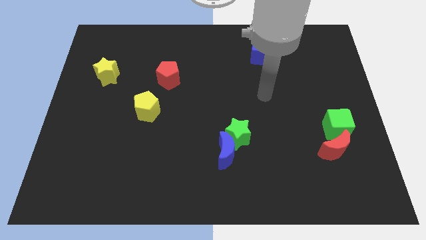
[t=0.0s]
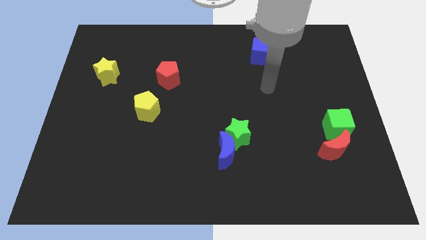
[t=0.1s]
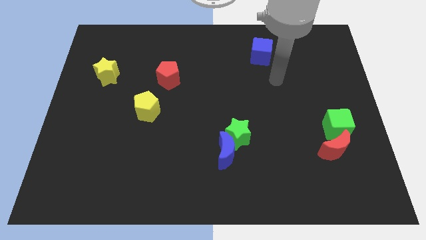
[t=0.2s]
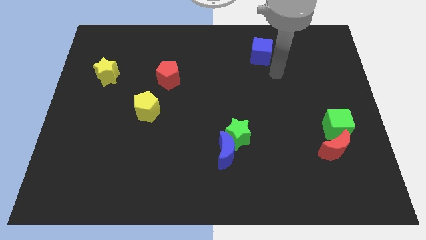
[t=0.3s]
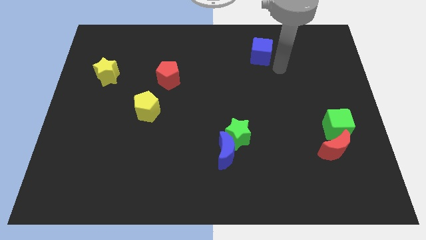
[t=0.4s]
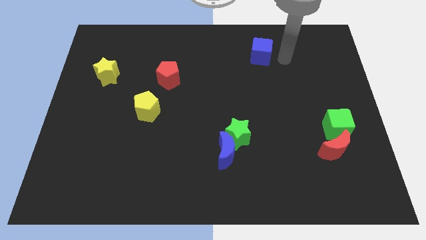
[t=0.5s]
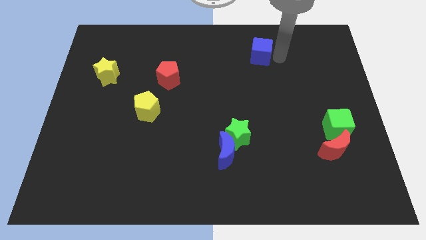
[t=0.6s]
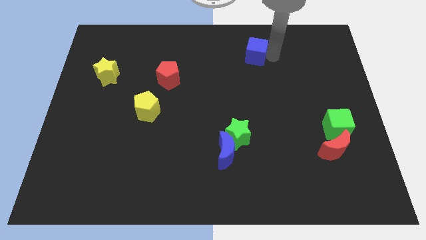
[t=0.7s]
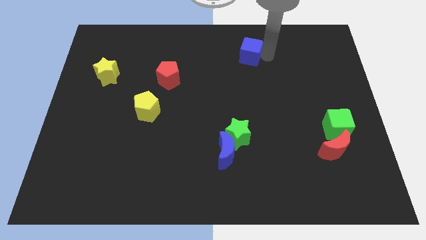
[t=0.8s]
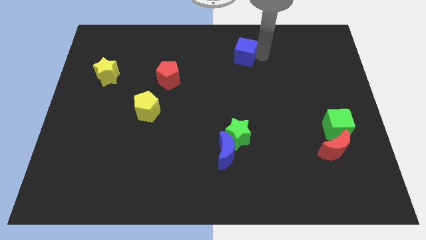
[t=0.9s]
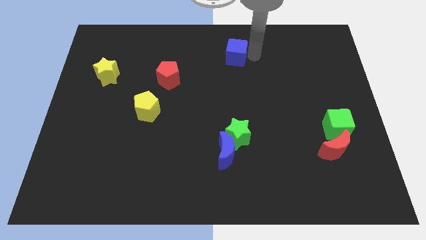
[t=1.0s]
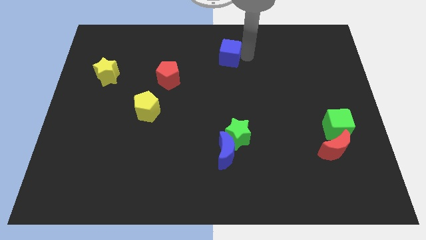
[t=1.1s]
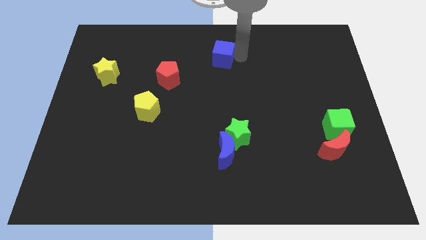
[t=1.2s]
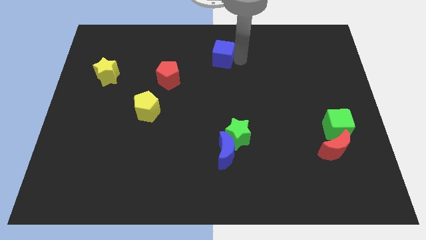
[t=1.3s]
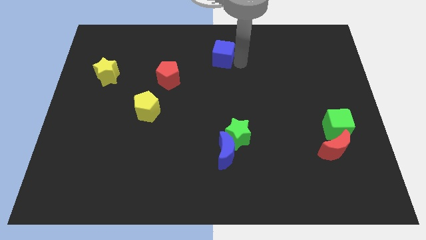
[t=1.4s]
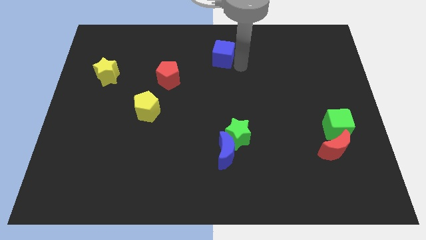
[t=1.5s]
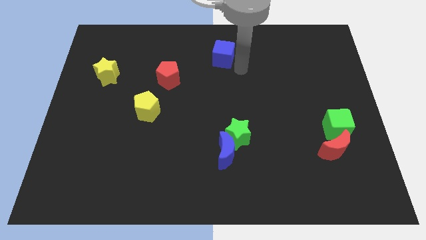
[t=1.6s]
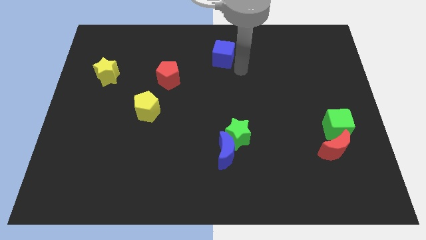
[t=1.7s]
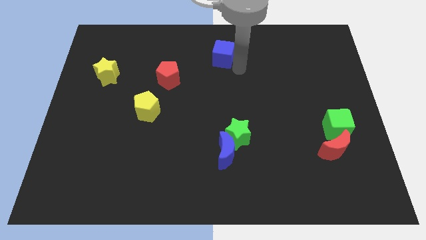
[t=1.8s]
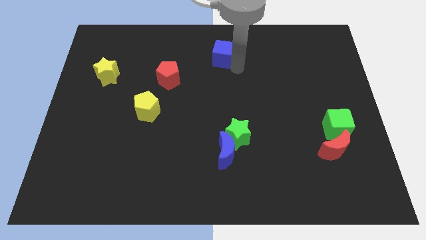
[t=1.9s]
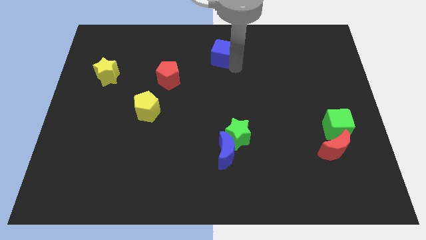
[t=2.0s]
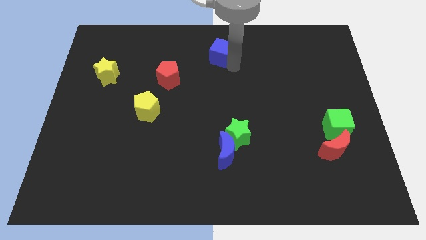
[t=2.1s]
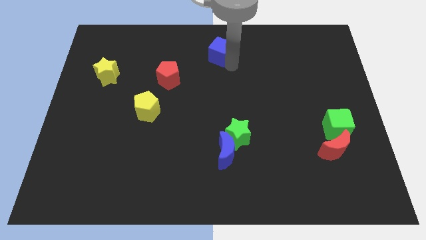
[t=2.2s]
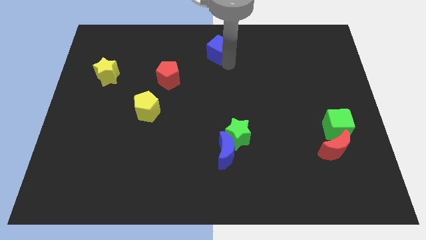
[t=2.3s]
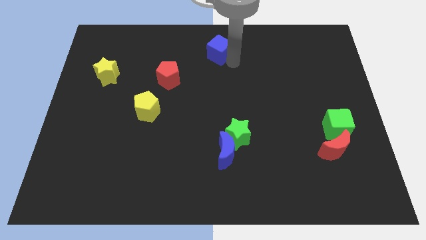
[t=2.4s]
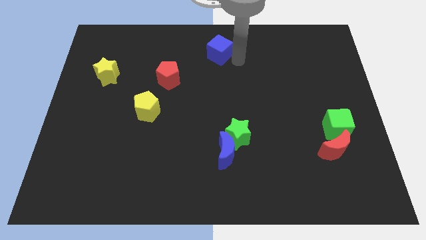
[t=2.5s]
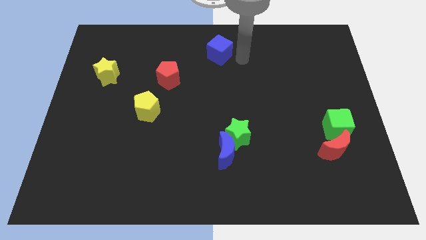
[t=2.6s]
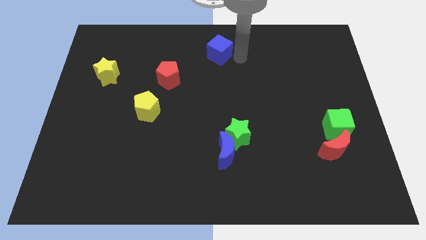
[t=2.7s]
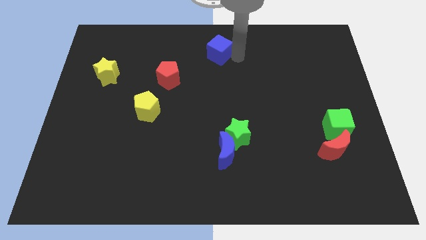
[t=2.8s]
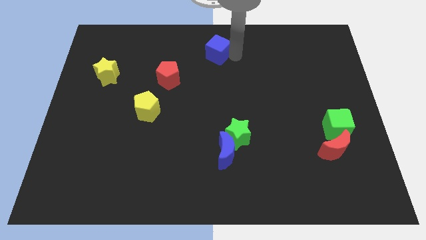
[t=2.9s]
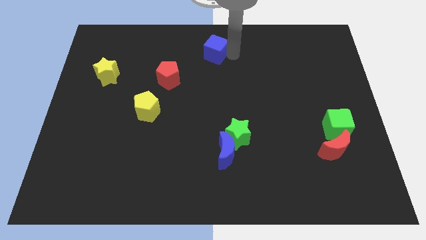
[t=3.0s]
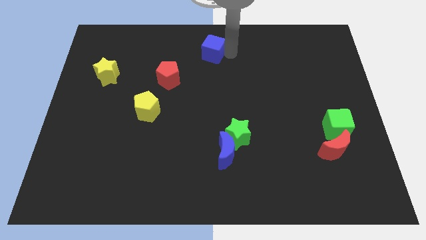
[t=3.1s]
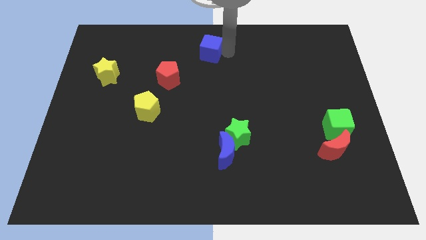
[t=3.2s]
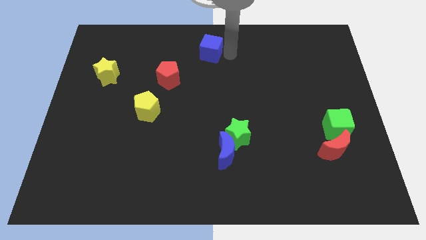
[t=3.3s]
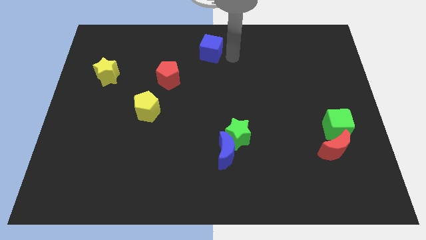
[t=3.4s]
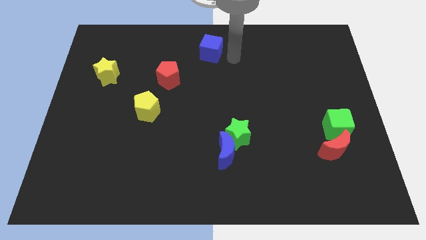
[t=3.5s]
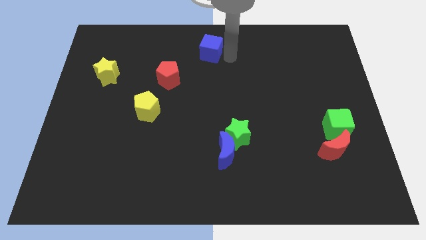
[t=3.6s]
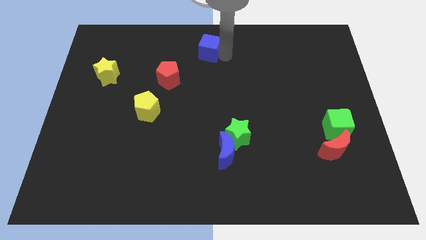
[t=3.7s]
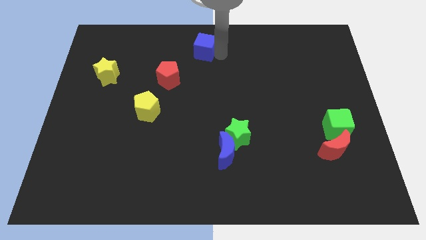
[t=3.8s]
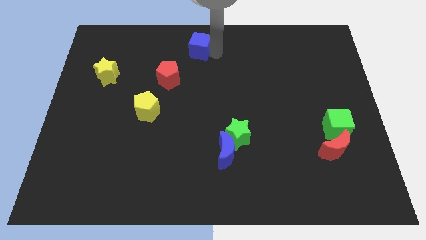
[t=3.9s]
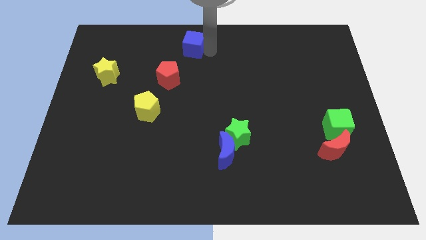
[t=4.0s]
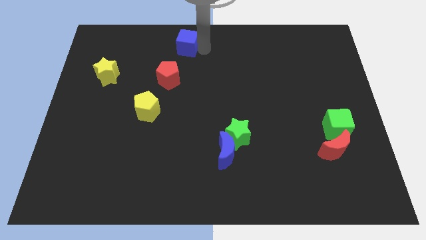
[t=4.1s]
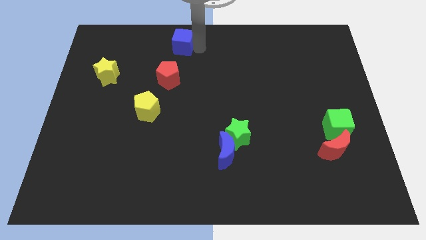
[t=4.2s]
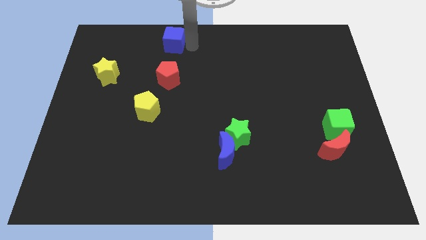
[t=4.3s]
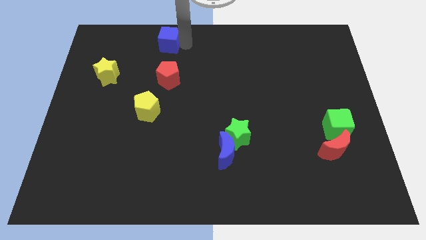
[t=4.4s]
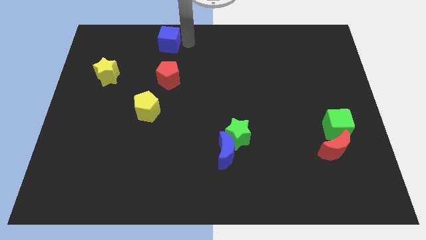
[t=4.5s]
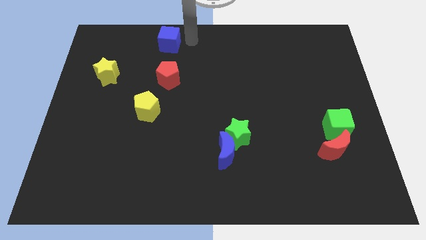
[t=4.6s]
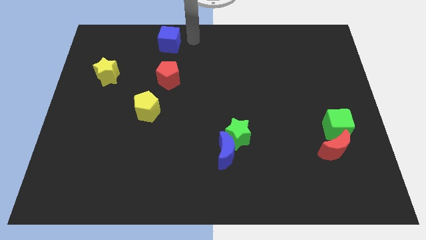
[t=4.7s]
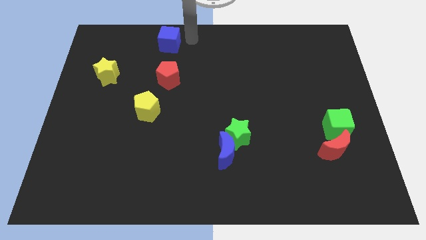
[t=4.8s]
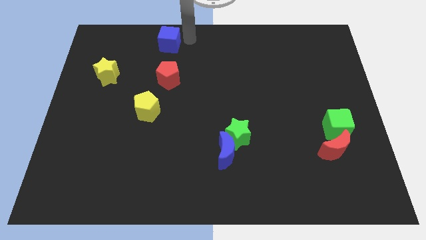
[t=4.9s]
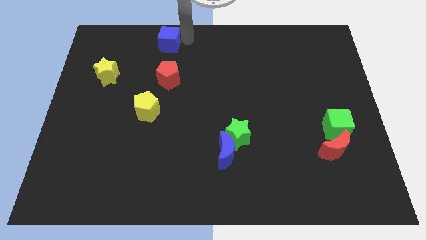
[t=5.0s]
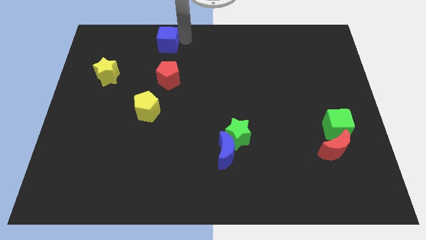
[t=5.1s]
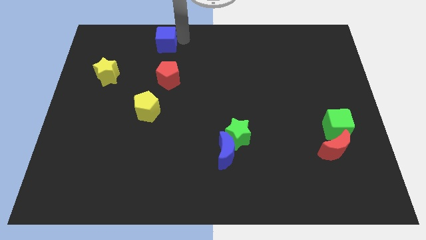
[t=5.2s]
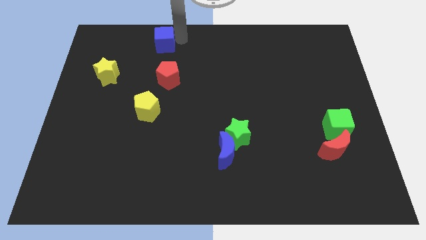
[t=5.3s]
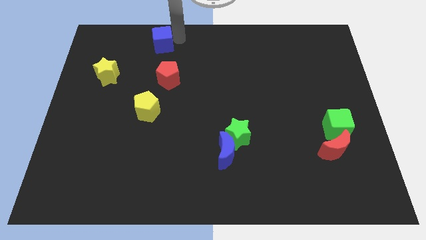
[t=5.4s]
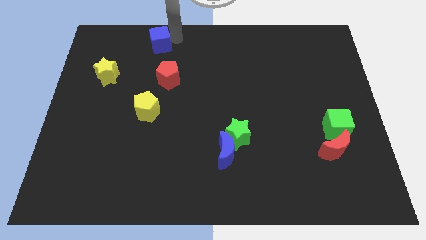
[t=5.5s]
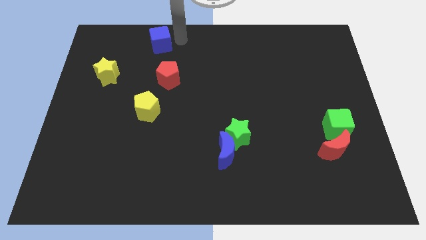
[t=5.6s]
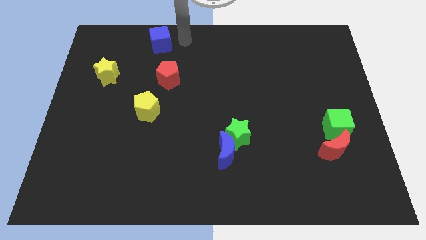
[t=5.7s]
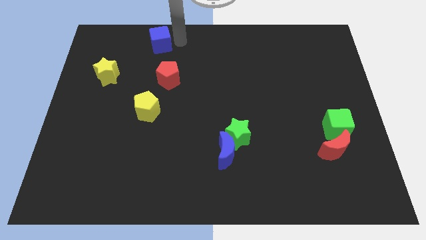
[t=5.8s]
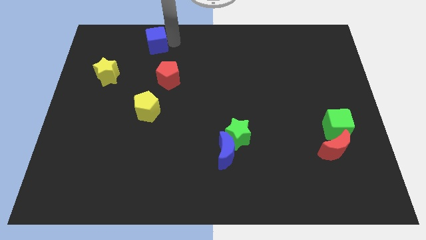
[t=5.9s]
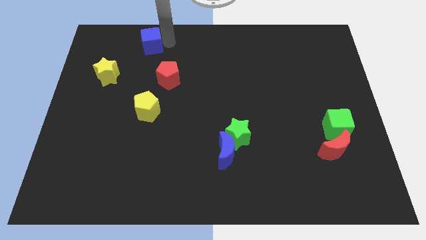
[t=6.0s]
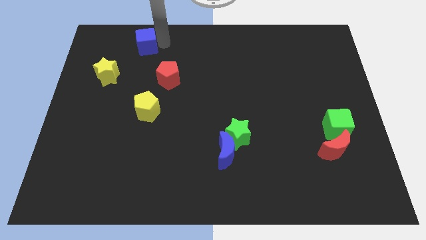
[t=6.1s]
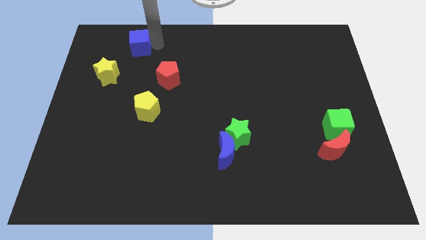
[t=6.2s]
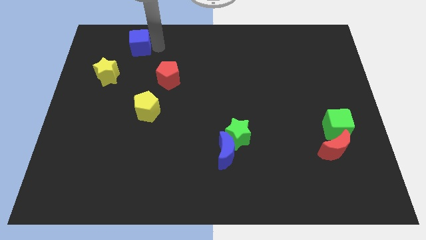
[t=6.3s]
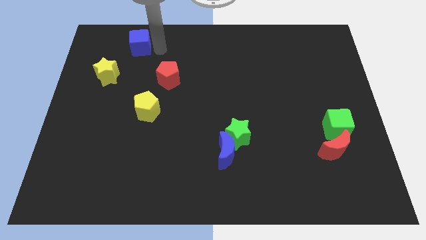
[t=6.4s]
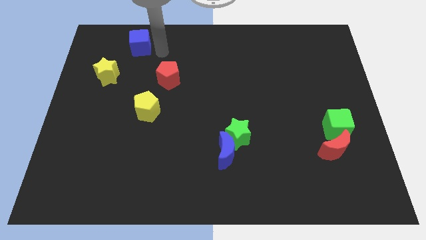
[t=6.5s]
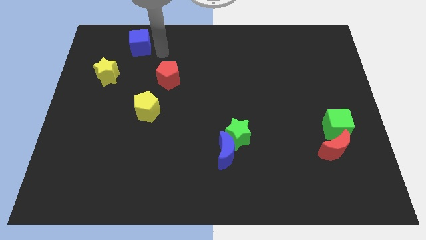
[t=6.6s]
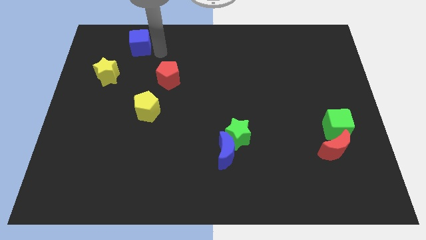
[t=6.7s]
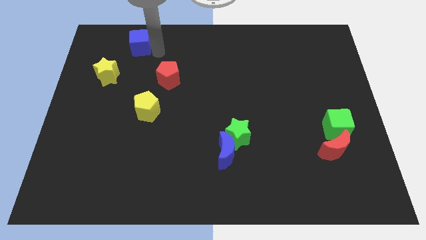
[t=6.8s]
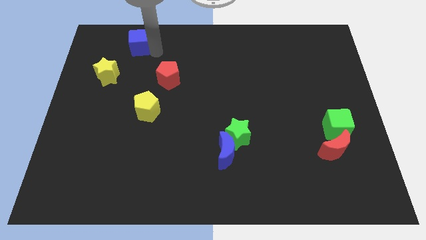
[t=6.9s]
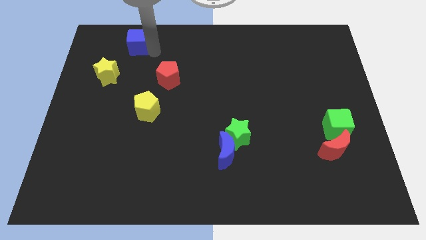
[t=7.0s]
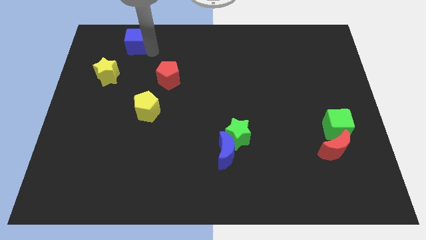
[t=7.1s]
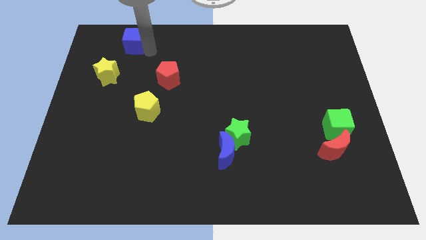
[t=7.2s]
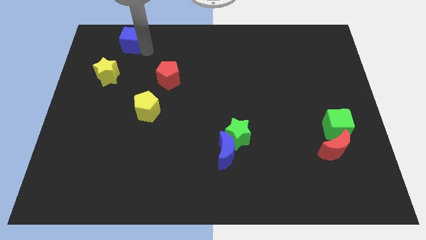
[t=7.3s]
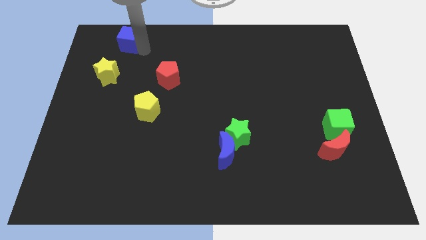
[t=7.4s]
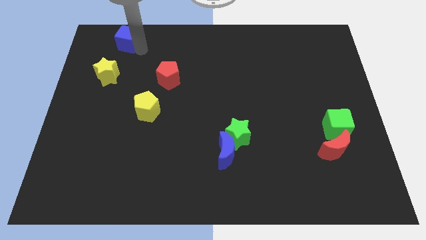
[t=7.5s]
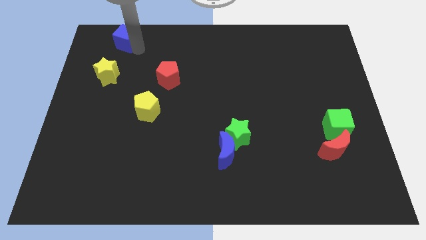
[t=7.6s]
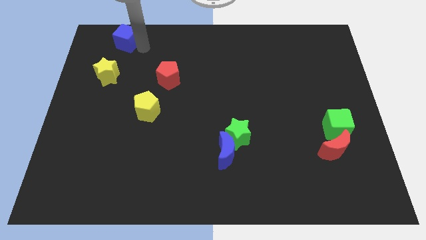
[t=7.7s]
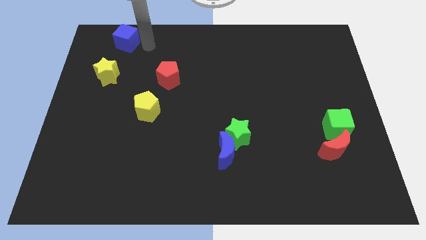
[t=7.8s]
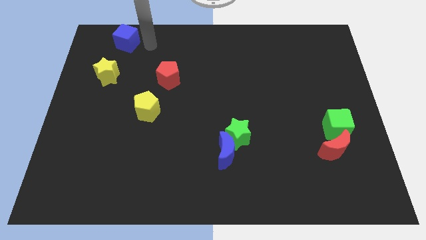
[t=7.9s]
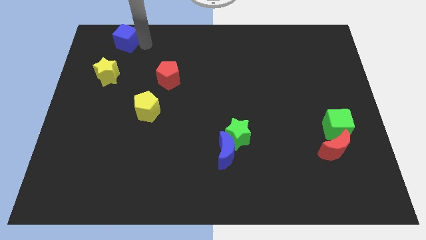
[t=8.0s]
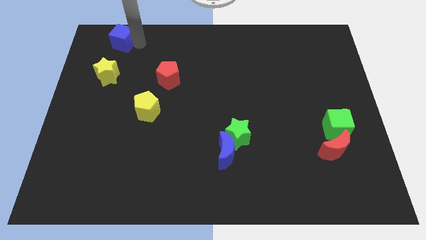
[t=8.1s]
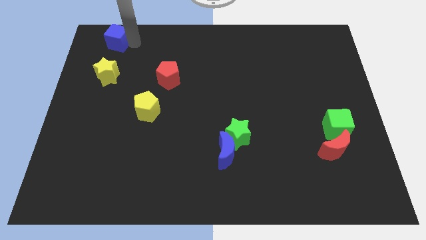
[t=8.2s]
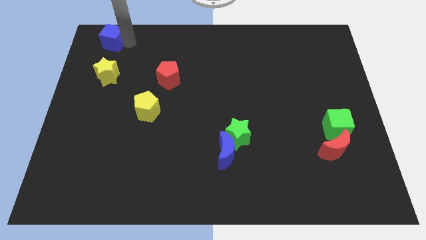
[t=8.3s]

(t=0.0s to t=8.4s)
put the blue cube to the top left of the board
